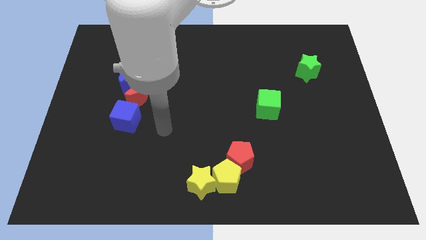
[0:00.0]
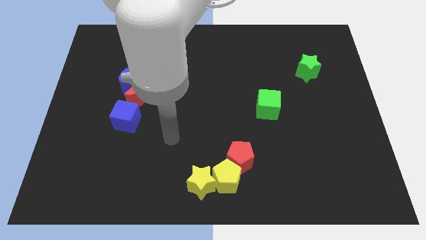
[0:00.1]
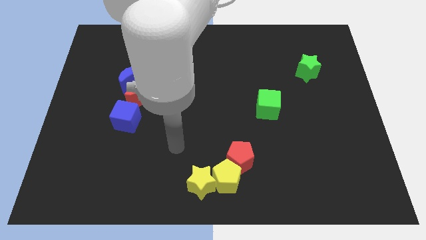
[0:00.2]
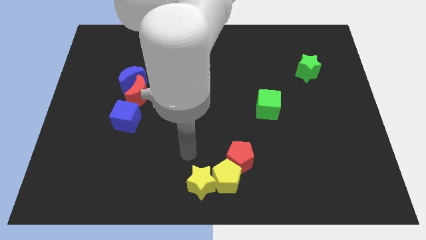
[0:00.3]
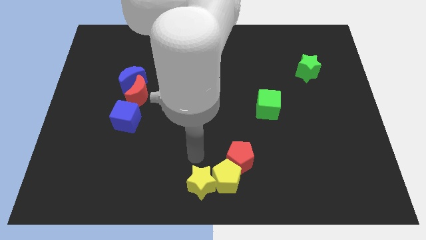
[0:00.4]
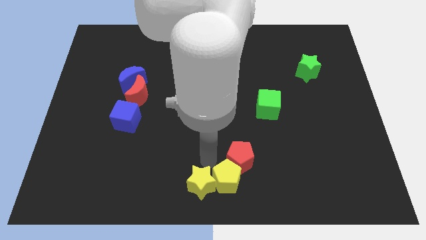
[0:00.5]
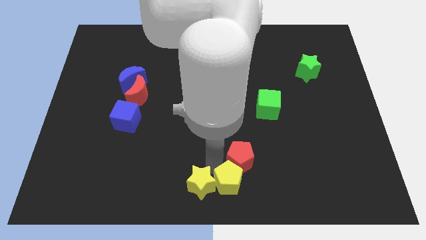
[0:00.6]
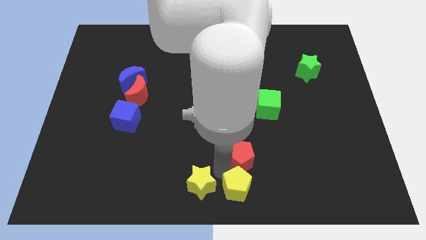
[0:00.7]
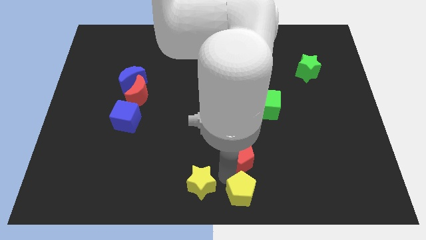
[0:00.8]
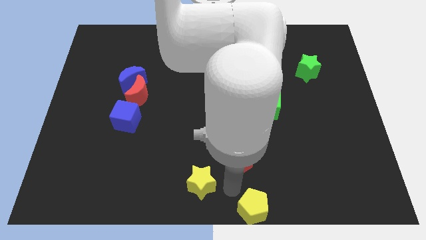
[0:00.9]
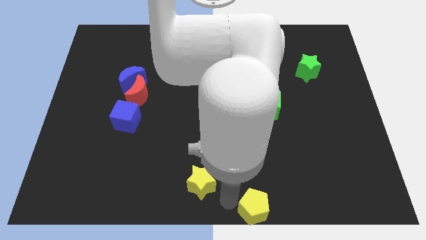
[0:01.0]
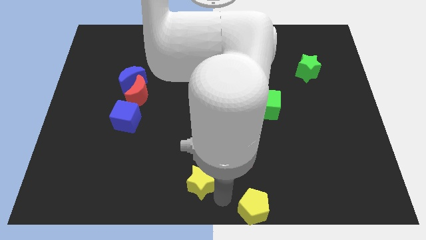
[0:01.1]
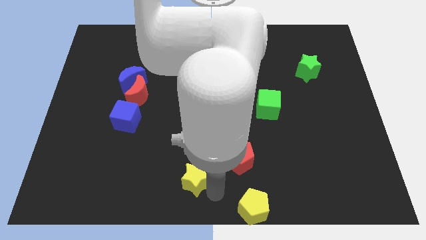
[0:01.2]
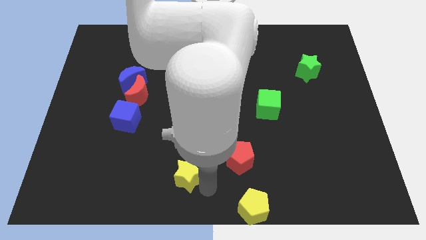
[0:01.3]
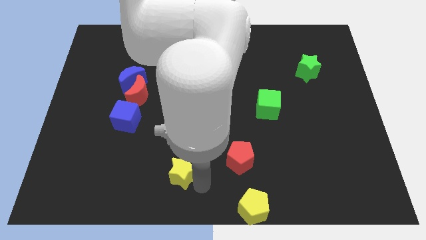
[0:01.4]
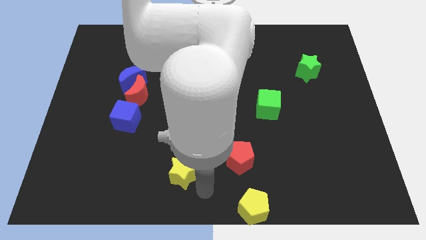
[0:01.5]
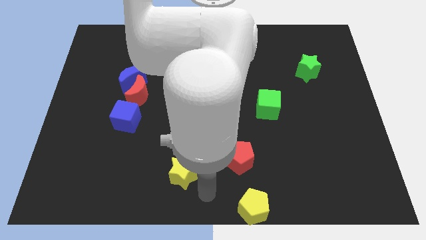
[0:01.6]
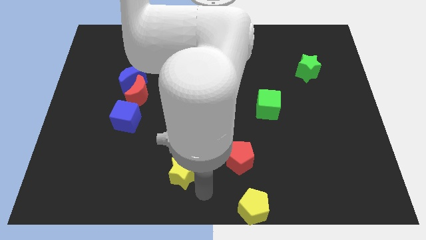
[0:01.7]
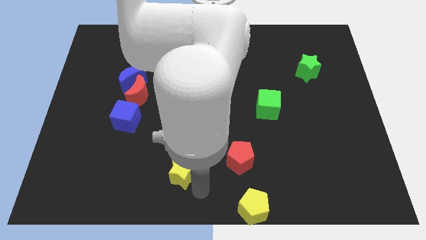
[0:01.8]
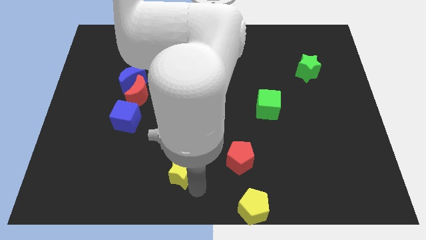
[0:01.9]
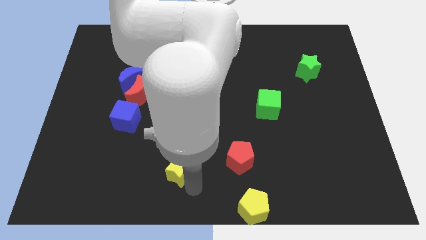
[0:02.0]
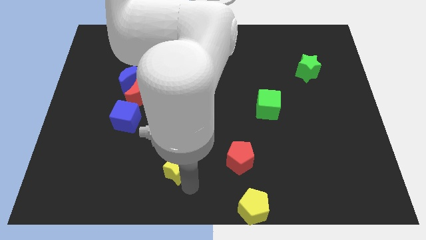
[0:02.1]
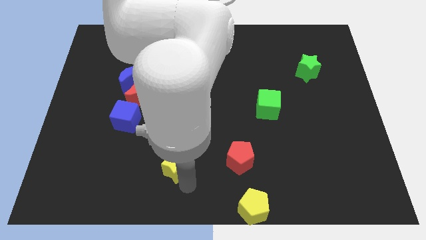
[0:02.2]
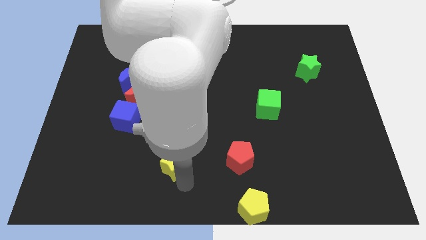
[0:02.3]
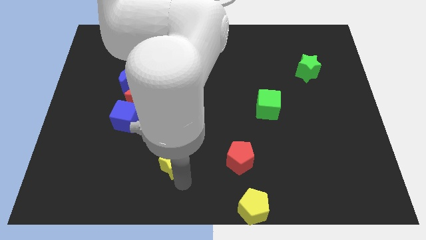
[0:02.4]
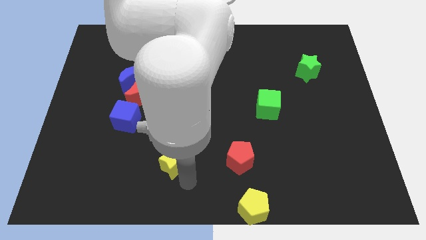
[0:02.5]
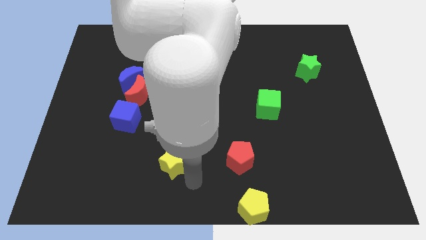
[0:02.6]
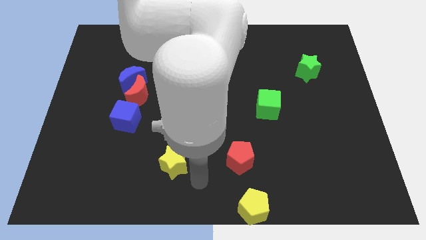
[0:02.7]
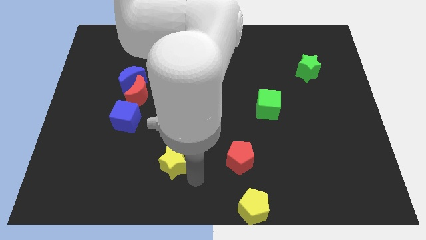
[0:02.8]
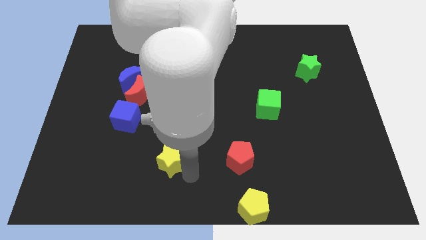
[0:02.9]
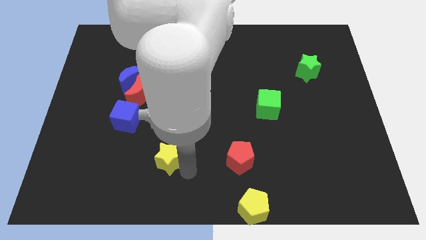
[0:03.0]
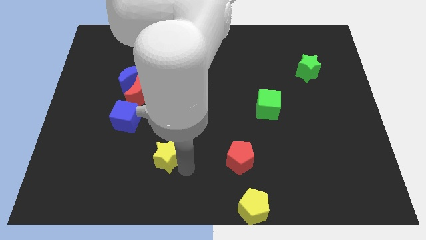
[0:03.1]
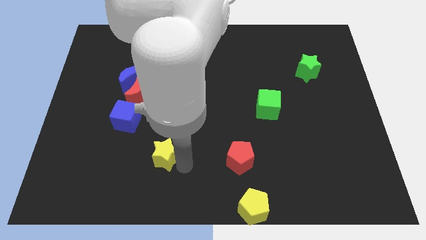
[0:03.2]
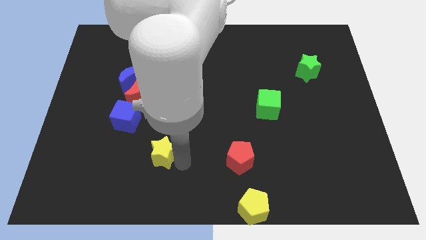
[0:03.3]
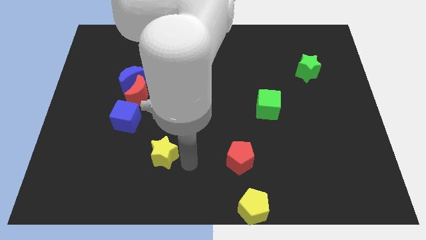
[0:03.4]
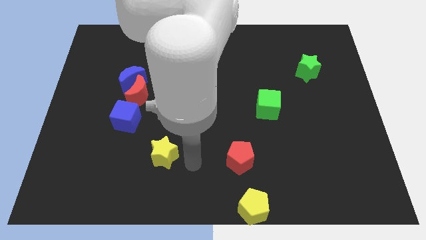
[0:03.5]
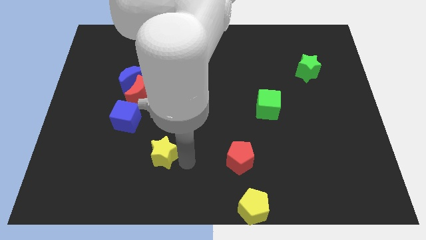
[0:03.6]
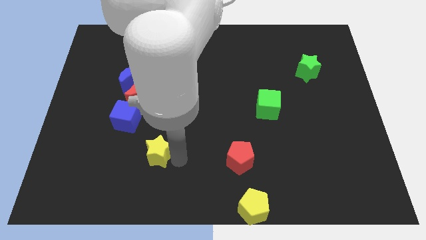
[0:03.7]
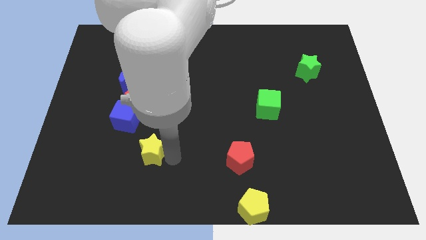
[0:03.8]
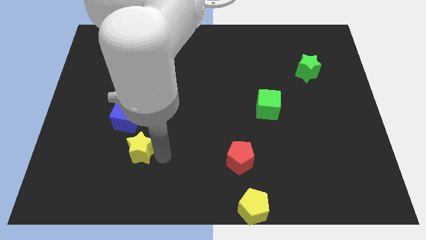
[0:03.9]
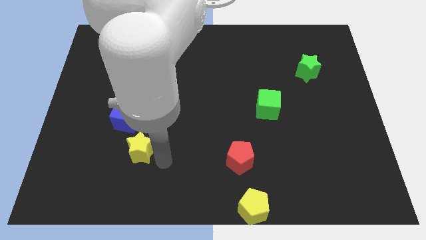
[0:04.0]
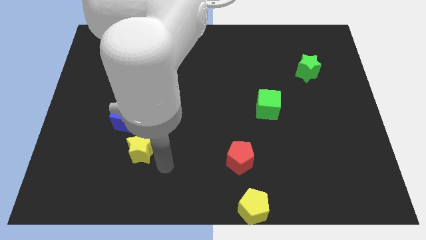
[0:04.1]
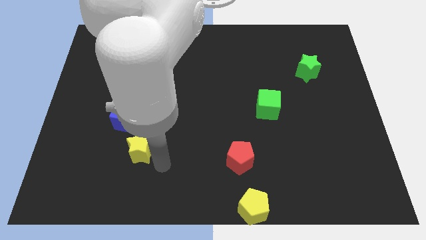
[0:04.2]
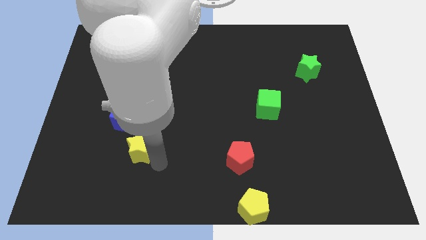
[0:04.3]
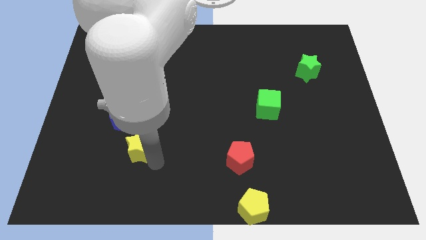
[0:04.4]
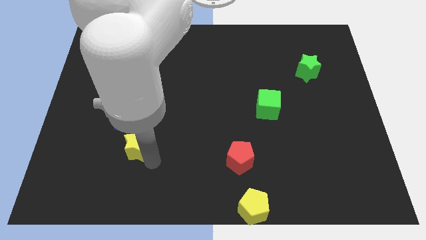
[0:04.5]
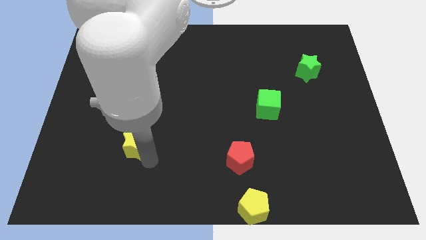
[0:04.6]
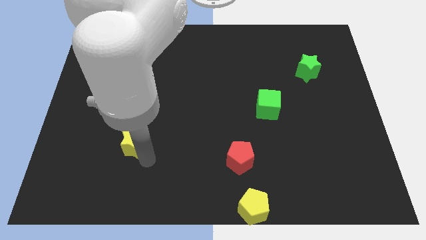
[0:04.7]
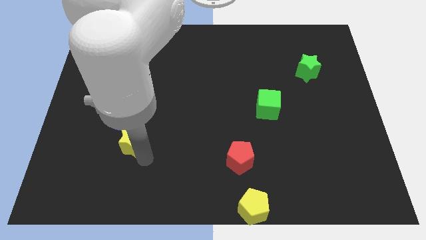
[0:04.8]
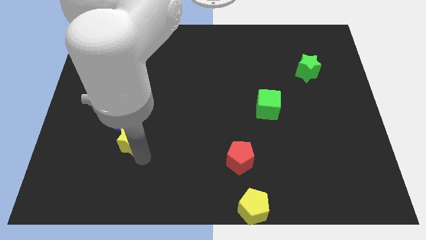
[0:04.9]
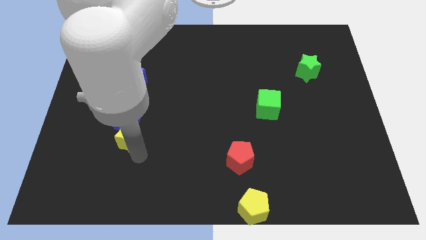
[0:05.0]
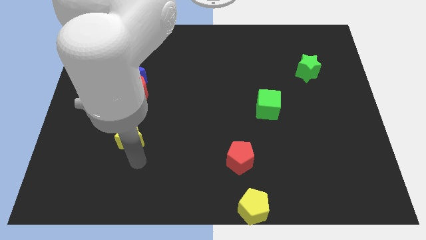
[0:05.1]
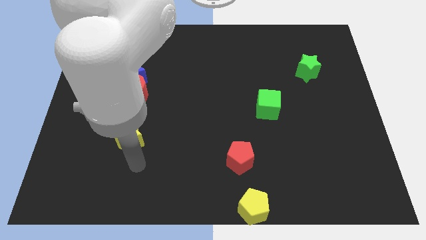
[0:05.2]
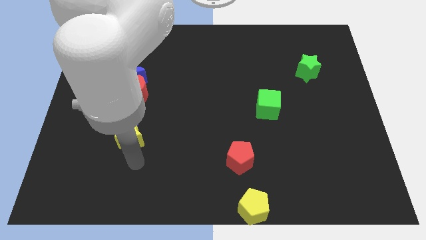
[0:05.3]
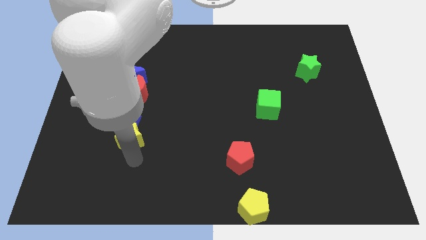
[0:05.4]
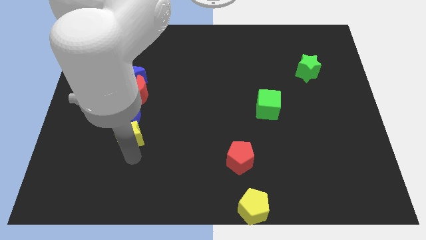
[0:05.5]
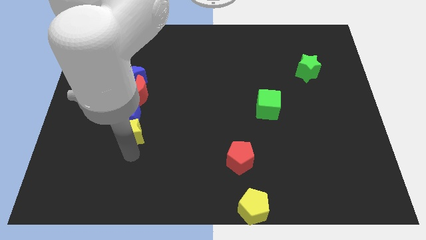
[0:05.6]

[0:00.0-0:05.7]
slide the yellow star to the bottom side of the blue moon

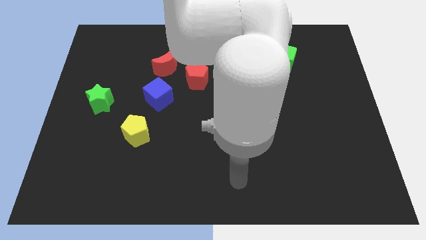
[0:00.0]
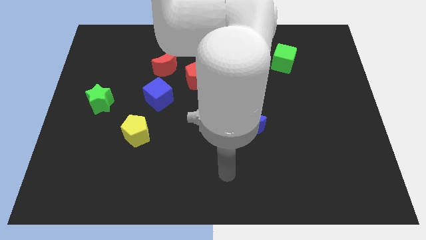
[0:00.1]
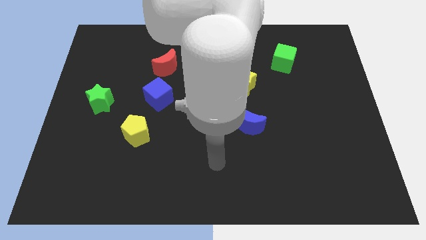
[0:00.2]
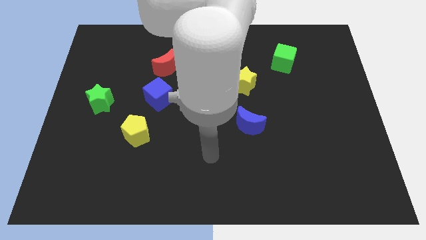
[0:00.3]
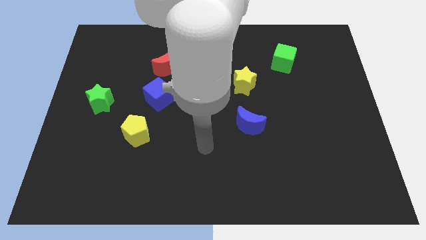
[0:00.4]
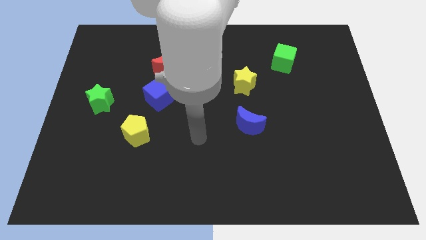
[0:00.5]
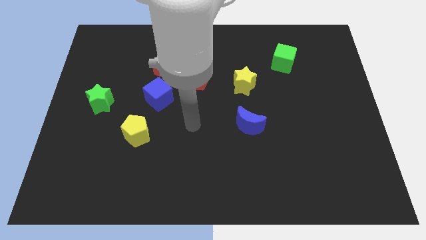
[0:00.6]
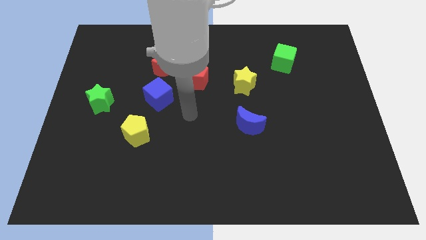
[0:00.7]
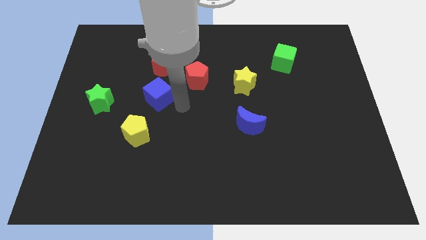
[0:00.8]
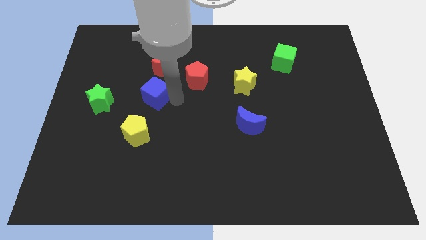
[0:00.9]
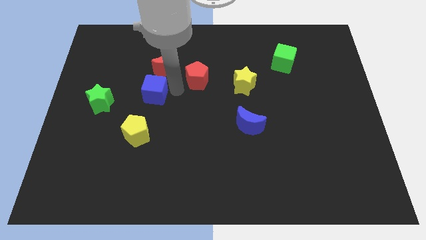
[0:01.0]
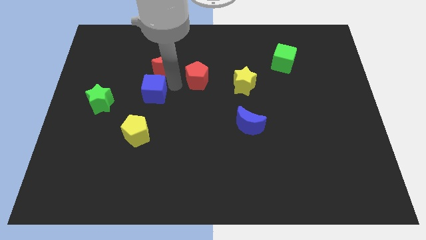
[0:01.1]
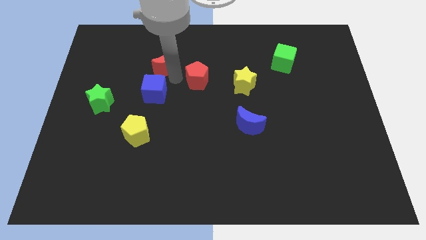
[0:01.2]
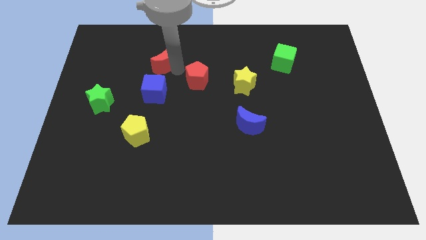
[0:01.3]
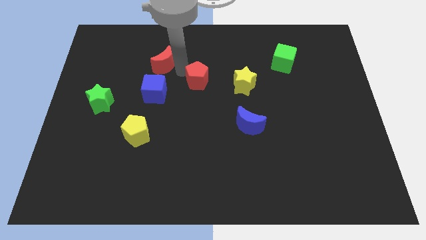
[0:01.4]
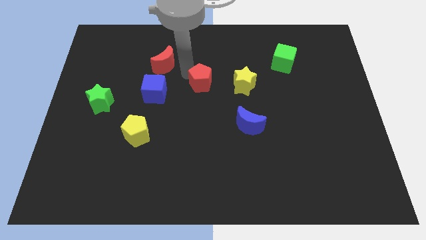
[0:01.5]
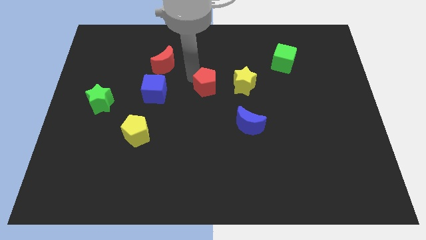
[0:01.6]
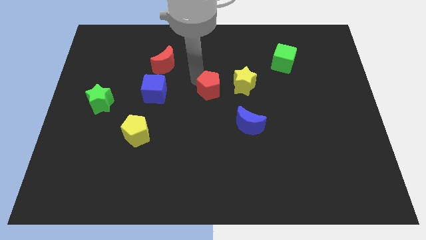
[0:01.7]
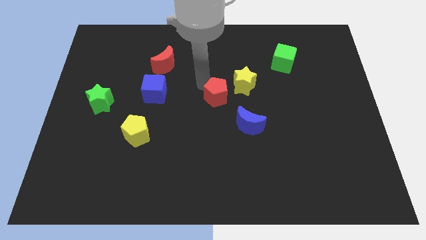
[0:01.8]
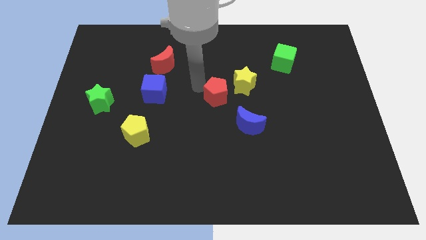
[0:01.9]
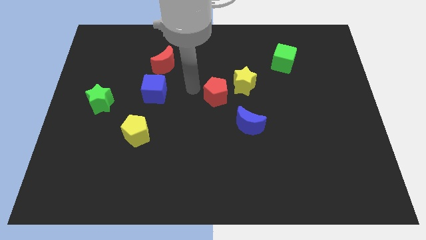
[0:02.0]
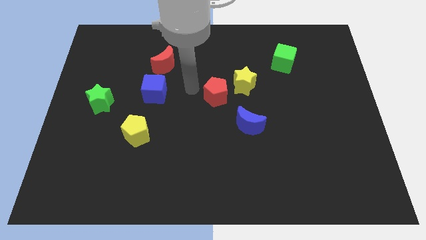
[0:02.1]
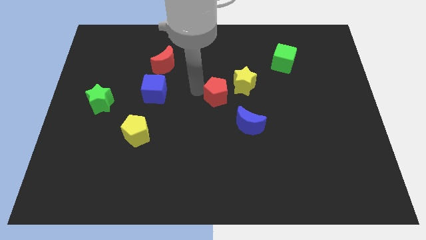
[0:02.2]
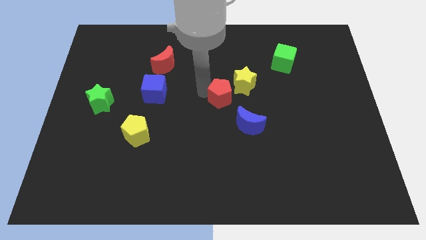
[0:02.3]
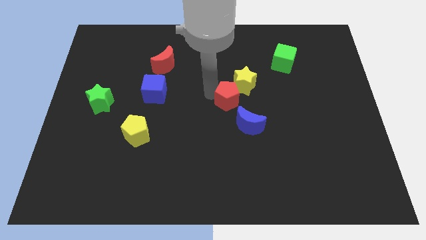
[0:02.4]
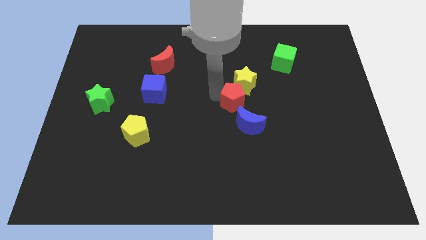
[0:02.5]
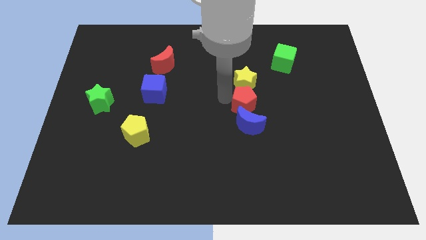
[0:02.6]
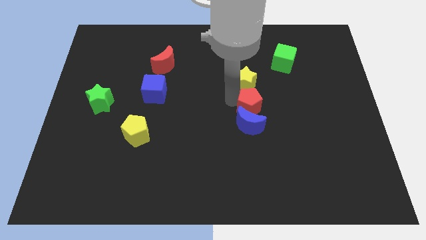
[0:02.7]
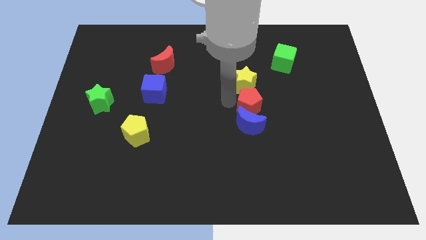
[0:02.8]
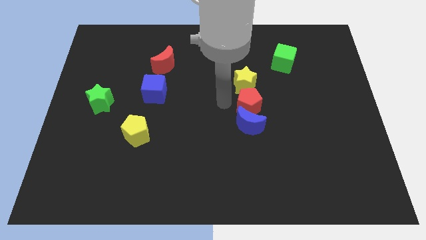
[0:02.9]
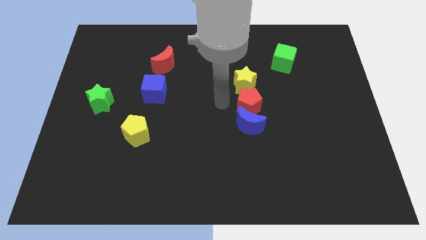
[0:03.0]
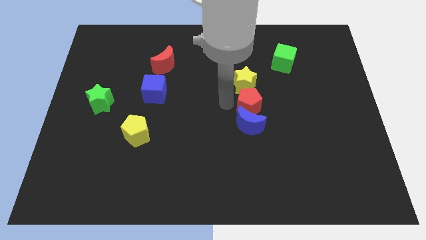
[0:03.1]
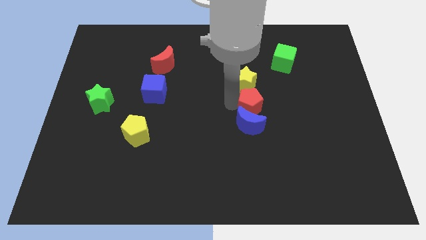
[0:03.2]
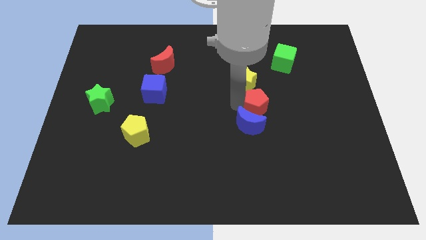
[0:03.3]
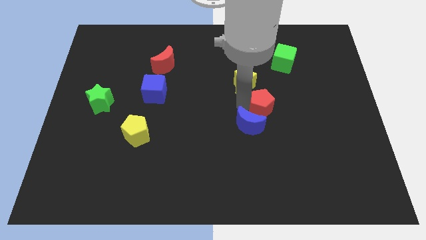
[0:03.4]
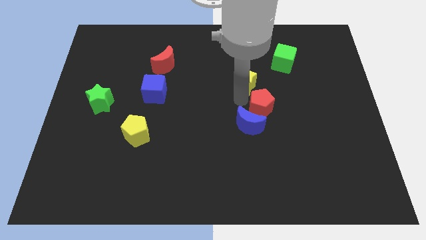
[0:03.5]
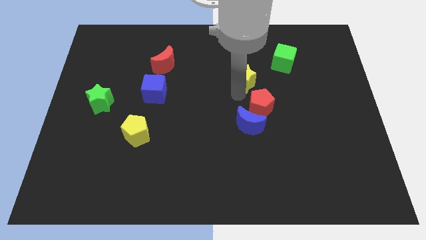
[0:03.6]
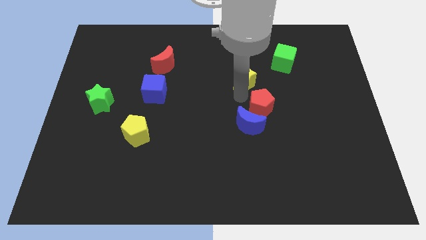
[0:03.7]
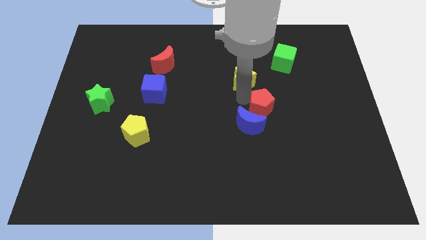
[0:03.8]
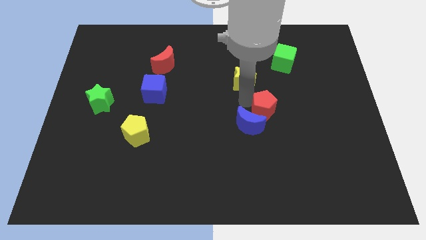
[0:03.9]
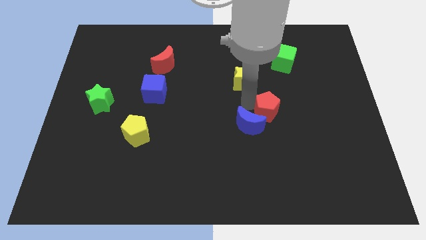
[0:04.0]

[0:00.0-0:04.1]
move the red pentagon to the right of the blue moon
